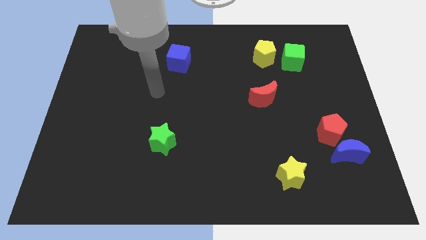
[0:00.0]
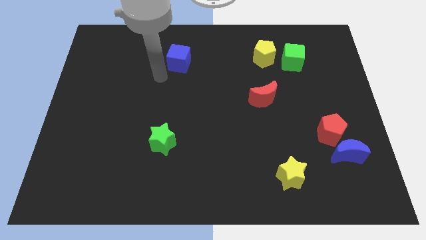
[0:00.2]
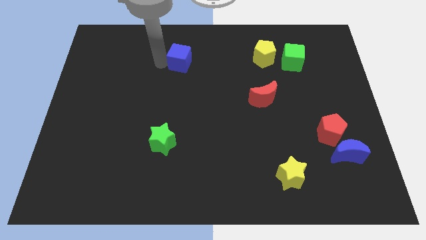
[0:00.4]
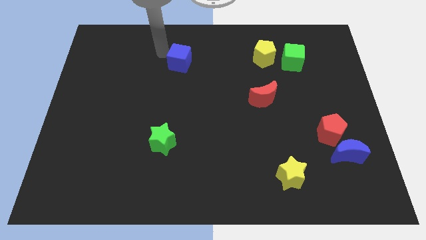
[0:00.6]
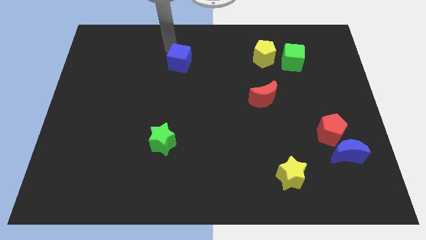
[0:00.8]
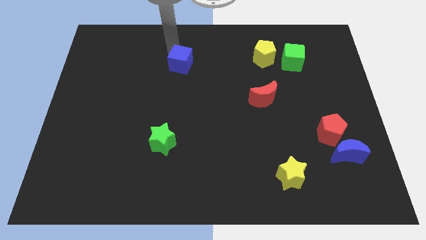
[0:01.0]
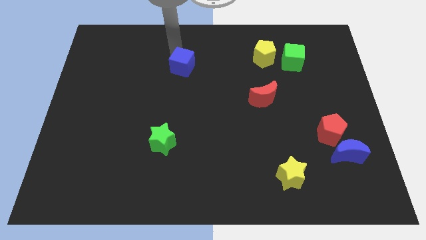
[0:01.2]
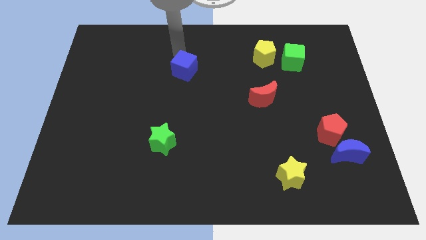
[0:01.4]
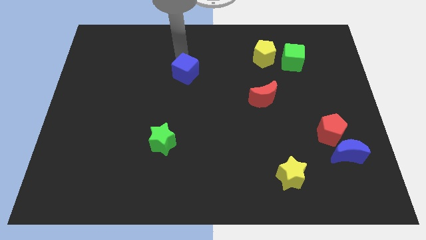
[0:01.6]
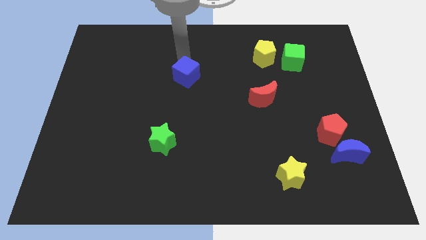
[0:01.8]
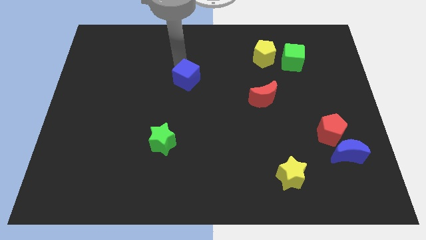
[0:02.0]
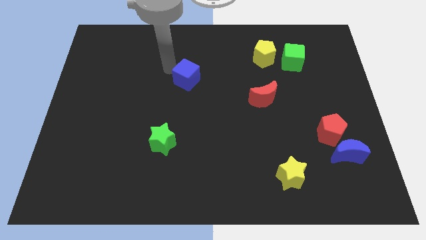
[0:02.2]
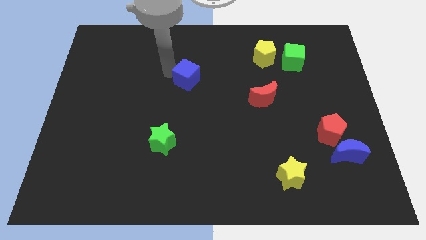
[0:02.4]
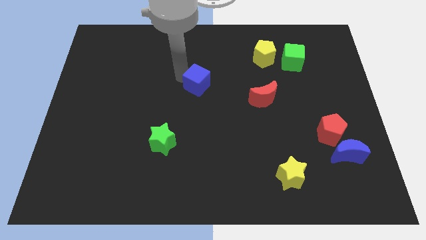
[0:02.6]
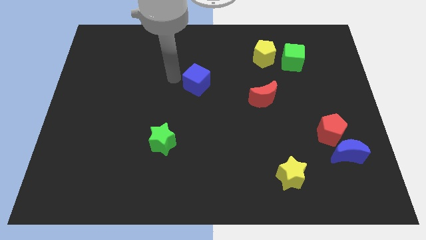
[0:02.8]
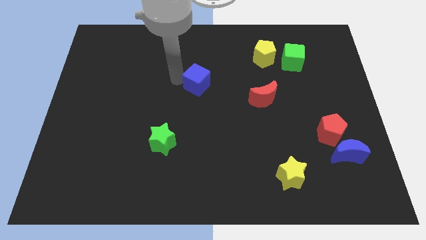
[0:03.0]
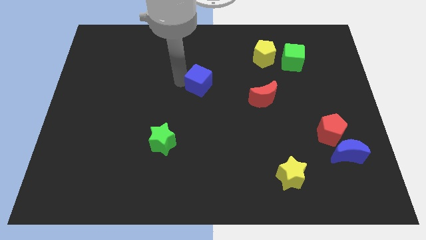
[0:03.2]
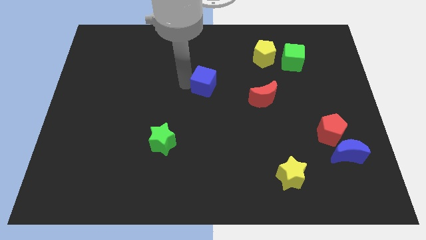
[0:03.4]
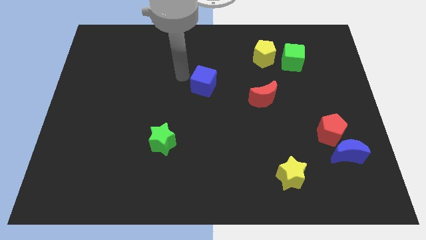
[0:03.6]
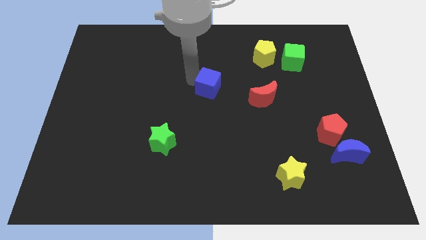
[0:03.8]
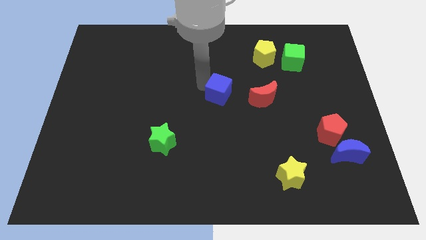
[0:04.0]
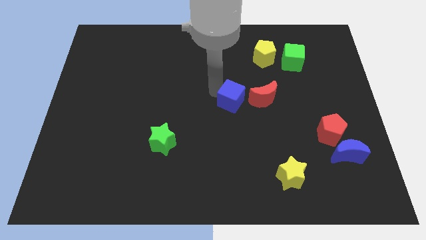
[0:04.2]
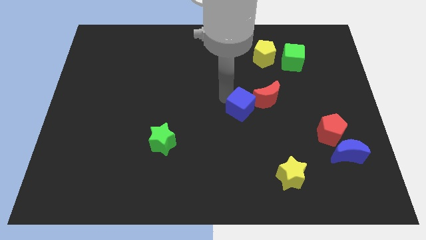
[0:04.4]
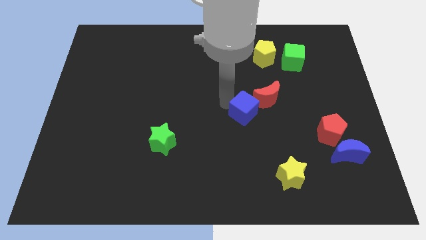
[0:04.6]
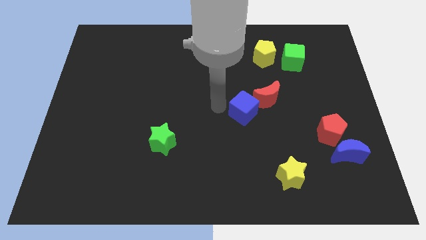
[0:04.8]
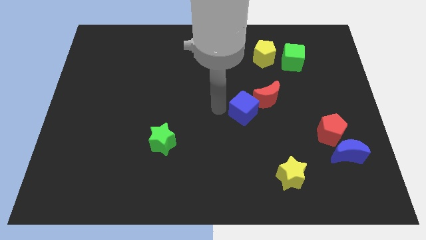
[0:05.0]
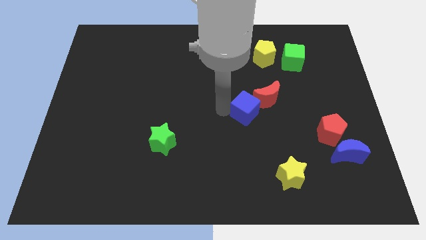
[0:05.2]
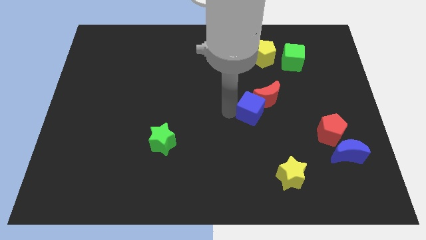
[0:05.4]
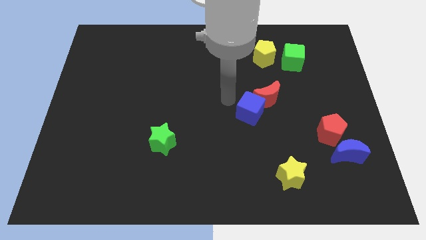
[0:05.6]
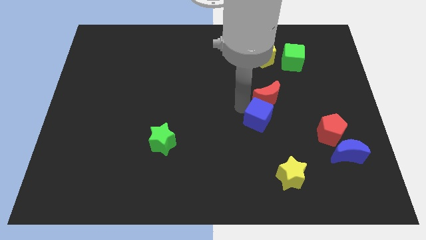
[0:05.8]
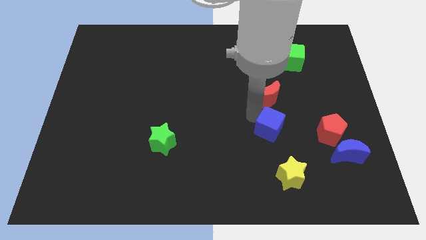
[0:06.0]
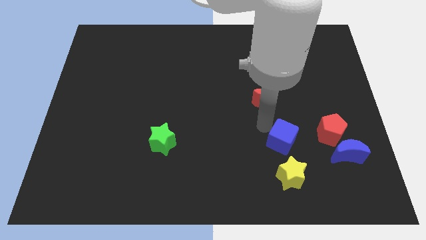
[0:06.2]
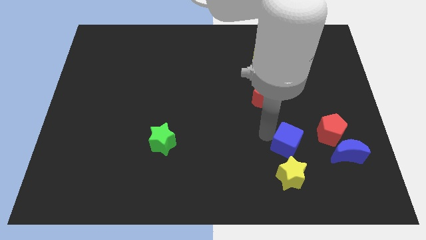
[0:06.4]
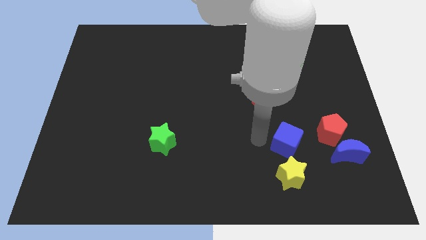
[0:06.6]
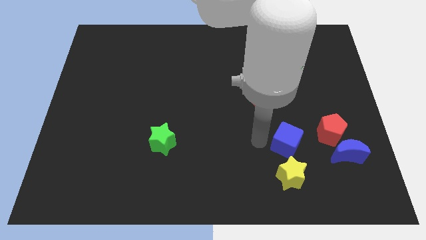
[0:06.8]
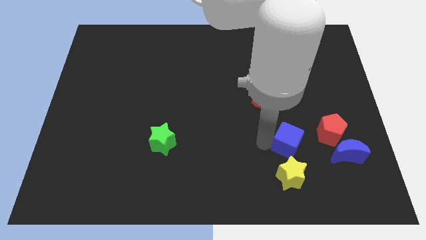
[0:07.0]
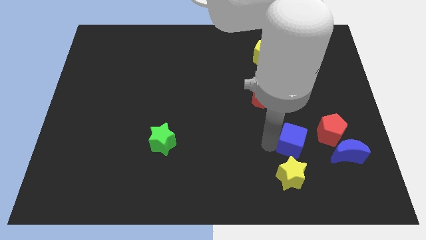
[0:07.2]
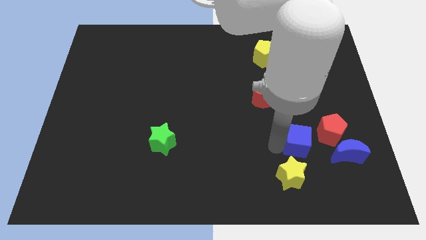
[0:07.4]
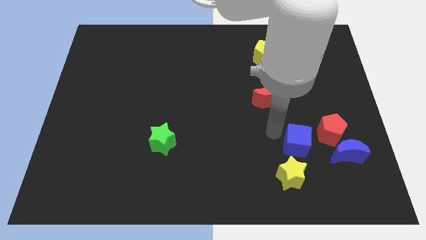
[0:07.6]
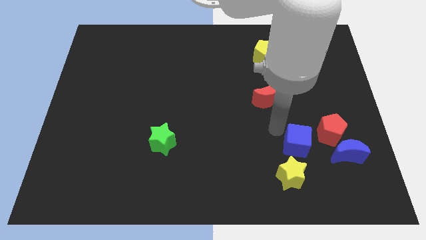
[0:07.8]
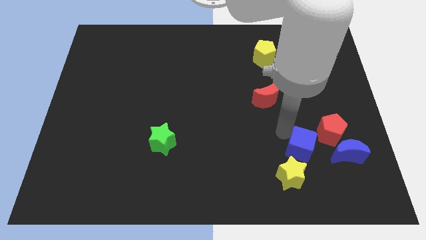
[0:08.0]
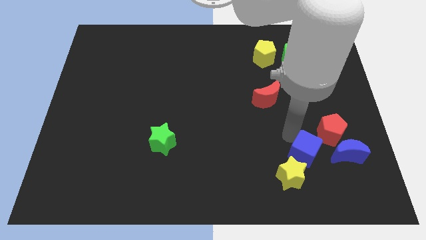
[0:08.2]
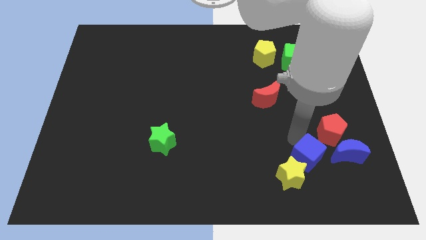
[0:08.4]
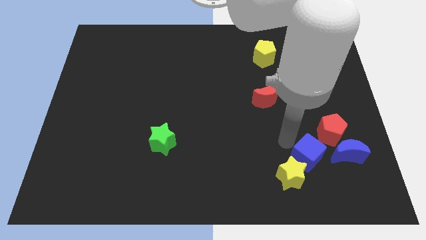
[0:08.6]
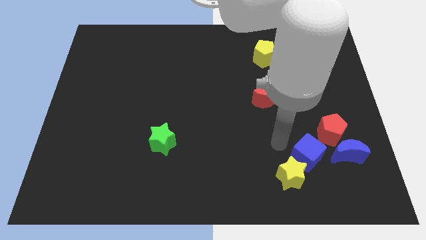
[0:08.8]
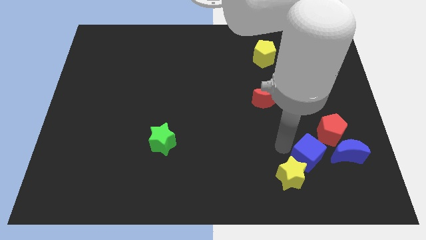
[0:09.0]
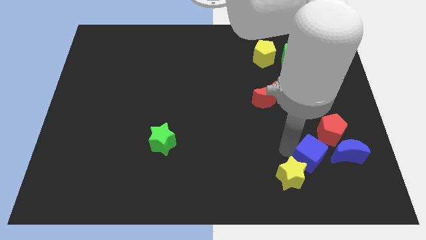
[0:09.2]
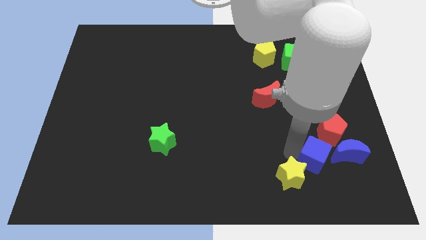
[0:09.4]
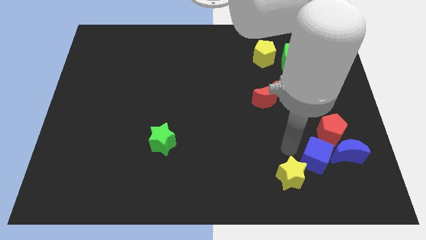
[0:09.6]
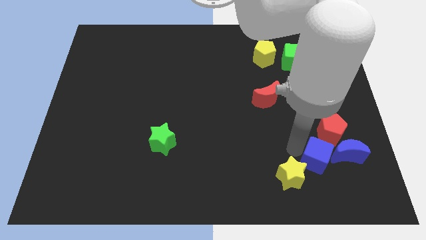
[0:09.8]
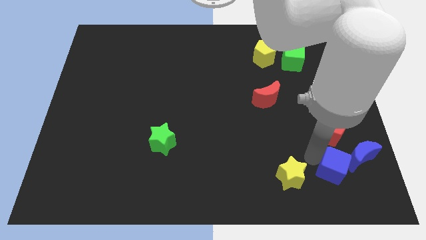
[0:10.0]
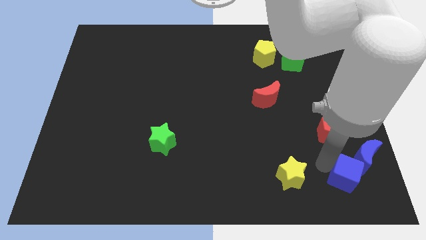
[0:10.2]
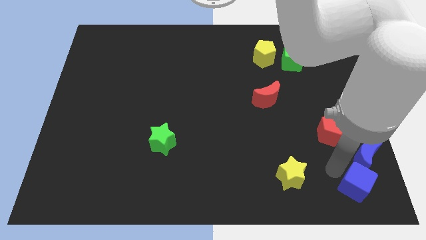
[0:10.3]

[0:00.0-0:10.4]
put the blue cube to the bottom right of the board

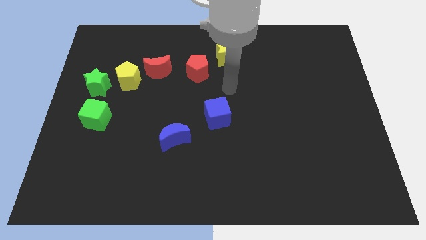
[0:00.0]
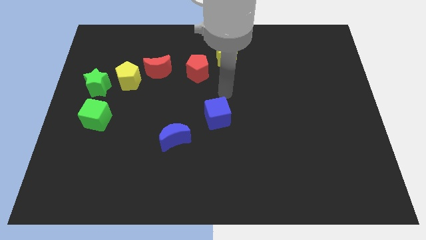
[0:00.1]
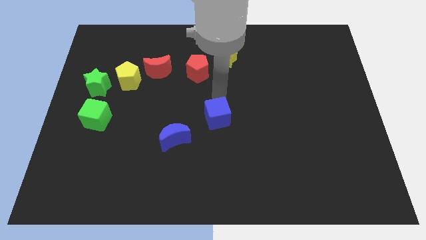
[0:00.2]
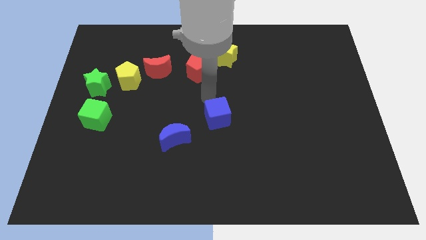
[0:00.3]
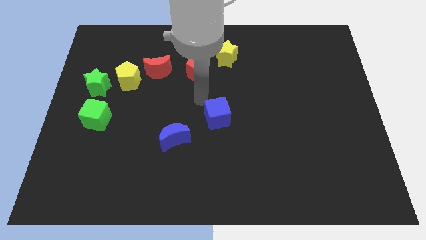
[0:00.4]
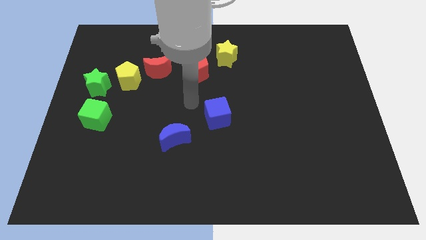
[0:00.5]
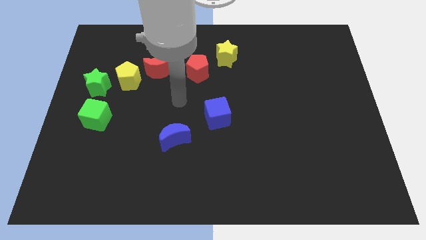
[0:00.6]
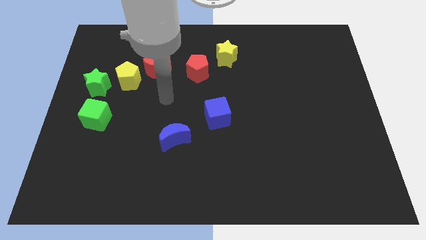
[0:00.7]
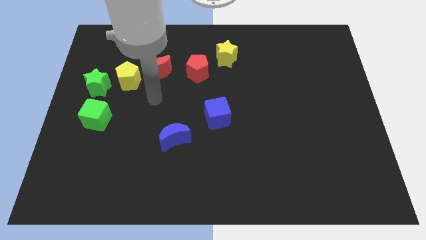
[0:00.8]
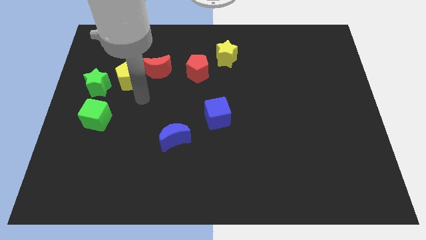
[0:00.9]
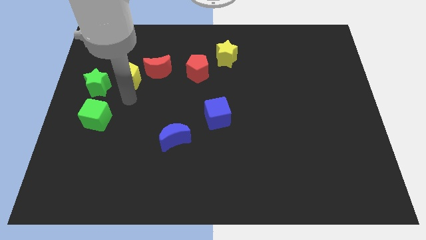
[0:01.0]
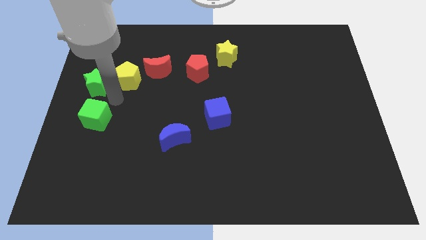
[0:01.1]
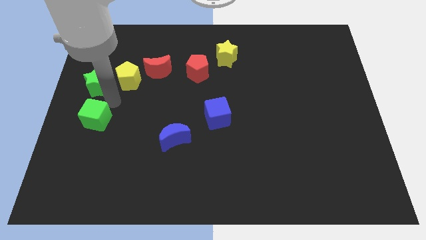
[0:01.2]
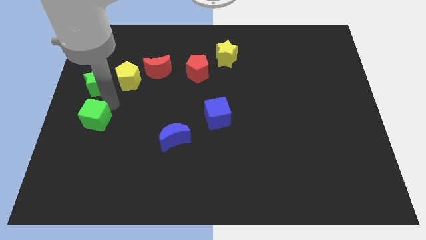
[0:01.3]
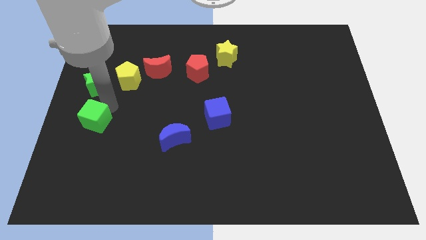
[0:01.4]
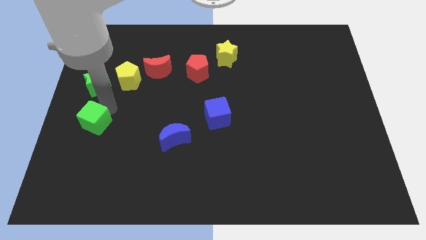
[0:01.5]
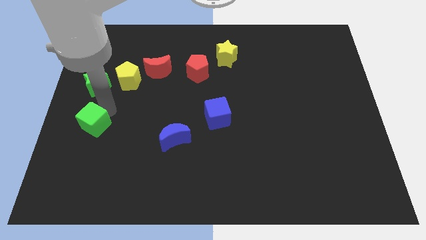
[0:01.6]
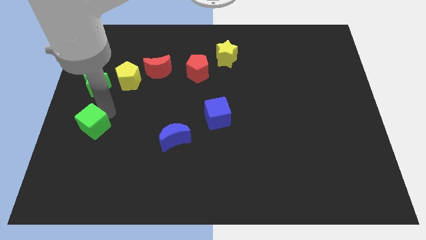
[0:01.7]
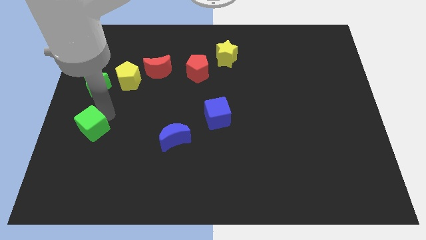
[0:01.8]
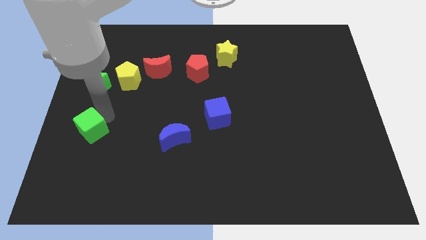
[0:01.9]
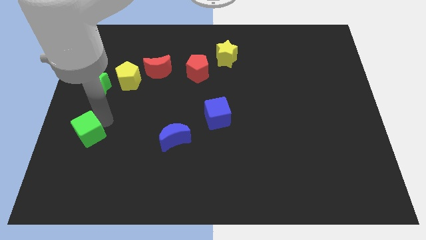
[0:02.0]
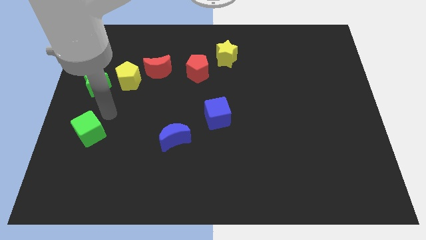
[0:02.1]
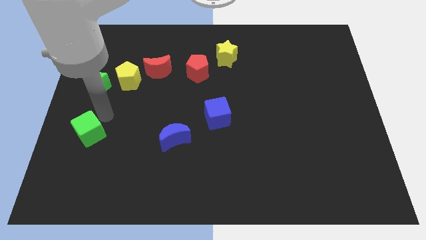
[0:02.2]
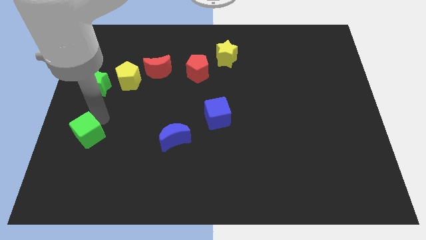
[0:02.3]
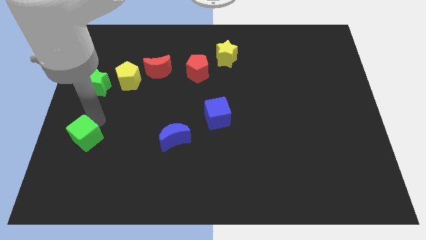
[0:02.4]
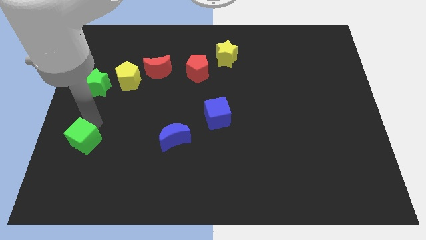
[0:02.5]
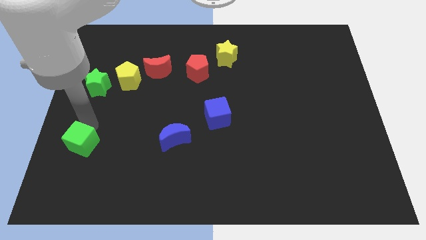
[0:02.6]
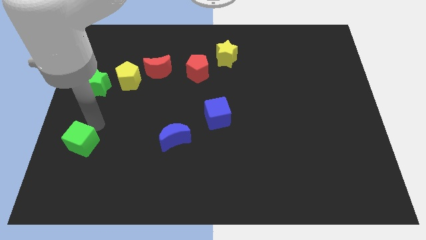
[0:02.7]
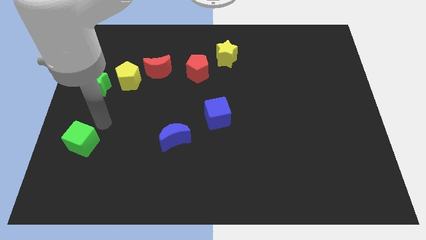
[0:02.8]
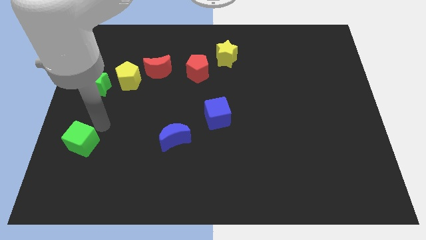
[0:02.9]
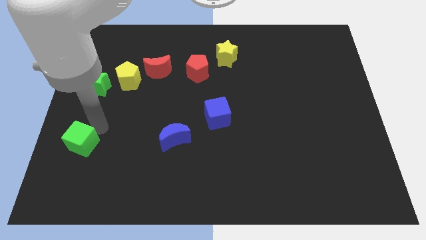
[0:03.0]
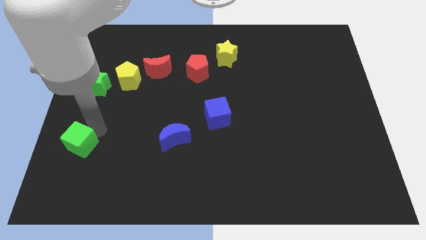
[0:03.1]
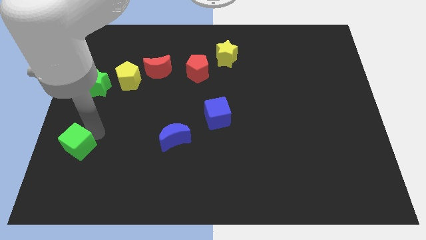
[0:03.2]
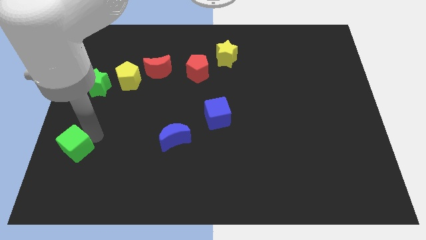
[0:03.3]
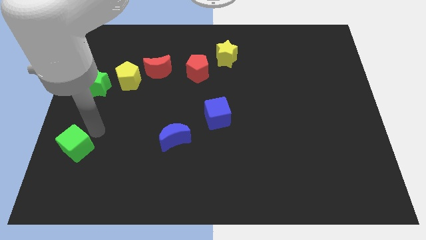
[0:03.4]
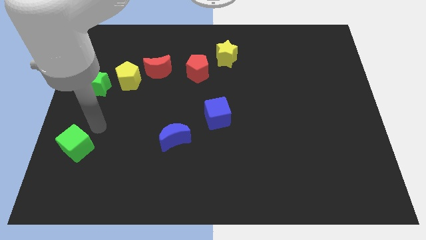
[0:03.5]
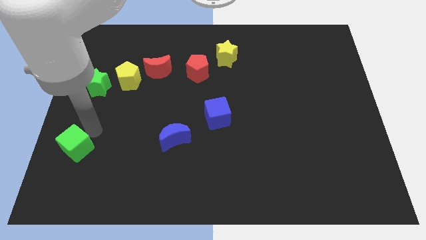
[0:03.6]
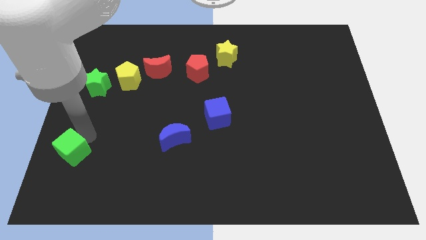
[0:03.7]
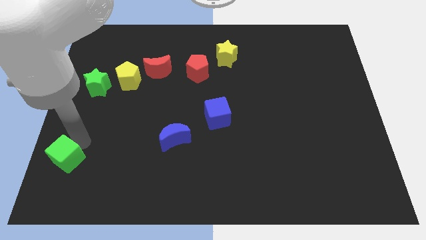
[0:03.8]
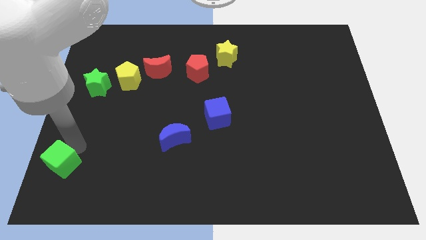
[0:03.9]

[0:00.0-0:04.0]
move the green cube to the bottom left
